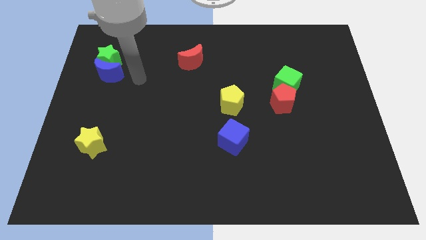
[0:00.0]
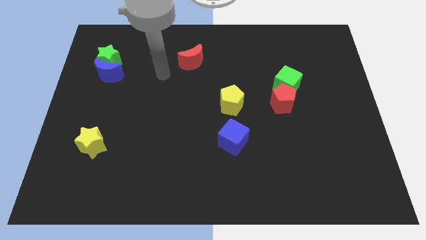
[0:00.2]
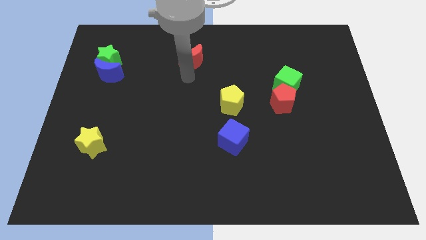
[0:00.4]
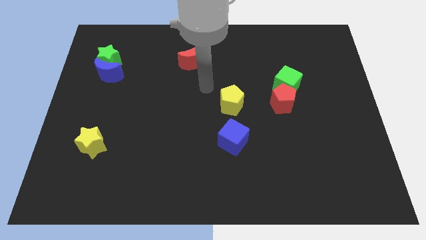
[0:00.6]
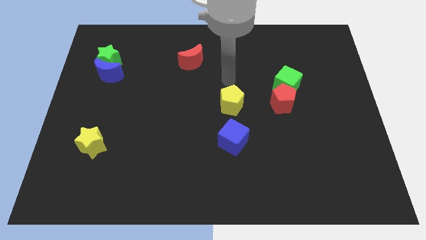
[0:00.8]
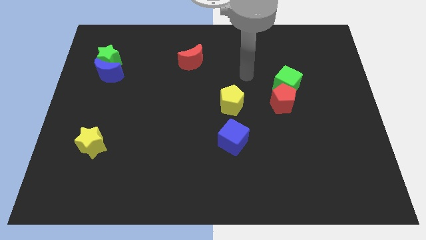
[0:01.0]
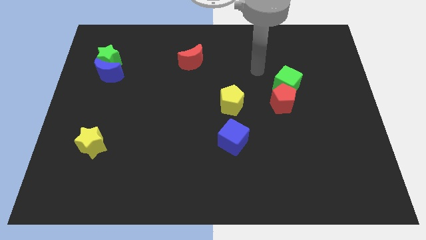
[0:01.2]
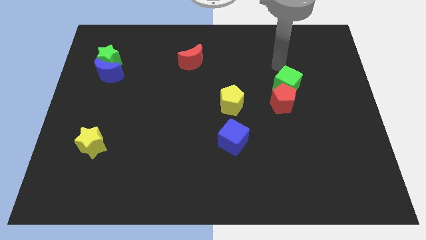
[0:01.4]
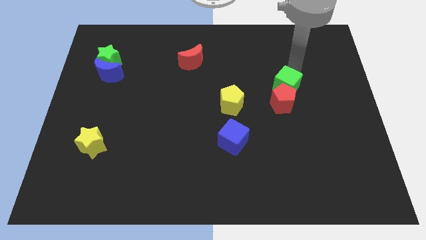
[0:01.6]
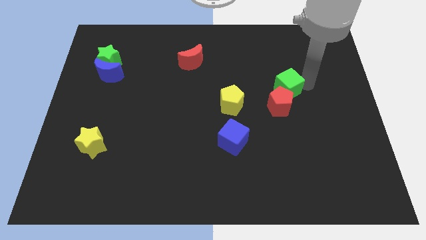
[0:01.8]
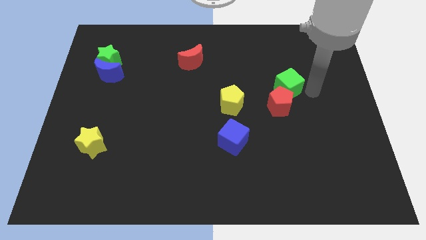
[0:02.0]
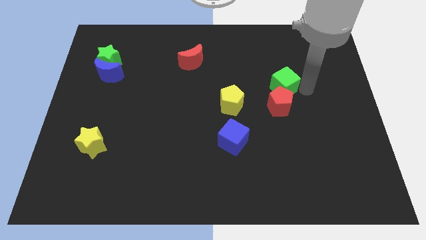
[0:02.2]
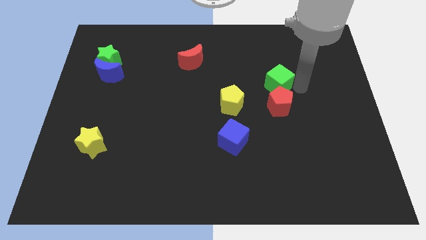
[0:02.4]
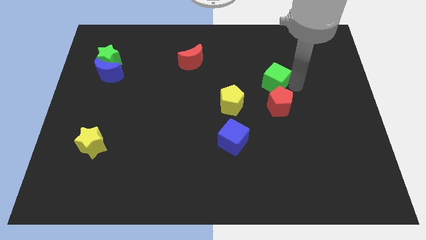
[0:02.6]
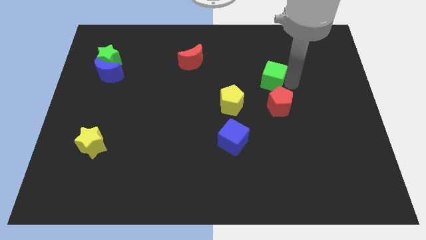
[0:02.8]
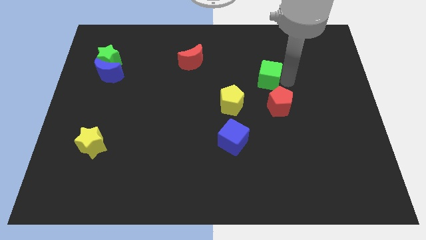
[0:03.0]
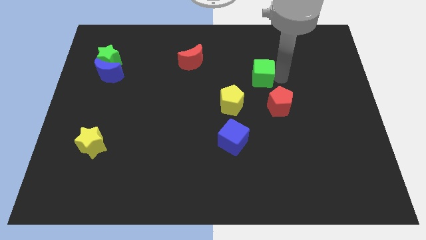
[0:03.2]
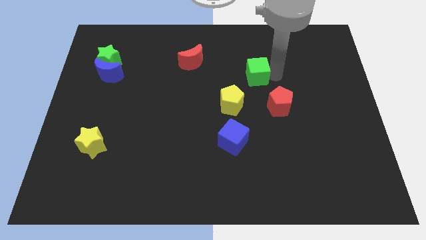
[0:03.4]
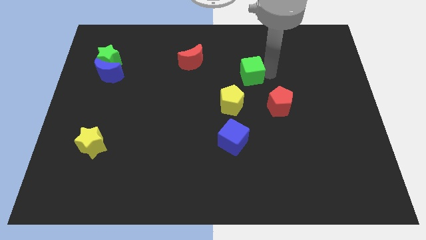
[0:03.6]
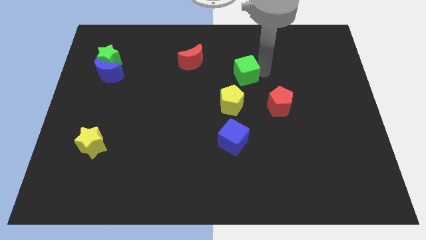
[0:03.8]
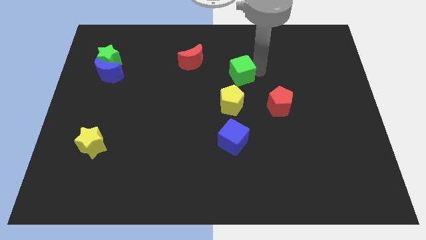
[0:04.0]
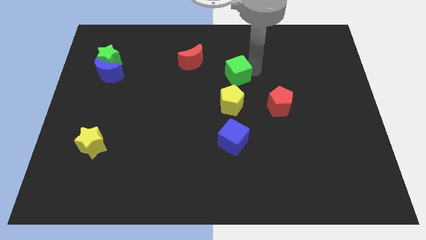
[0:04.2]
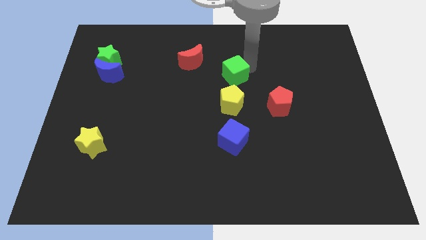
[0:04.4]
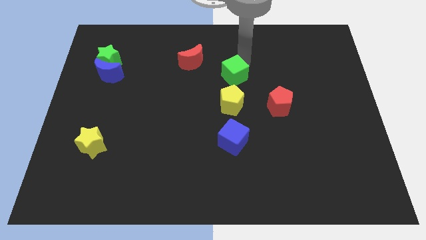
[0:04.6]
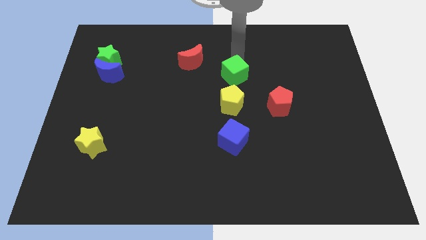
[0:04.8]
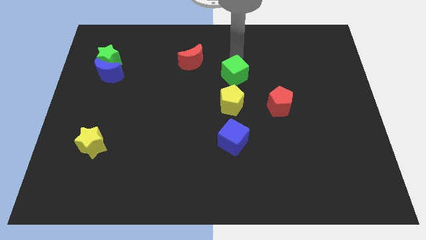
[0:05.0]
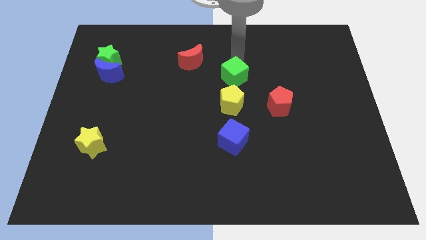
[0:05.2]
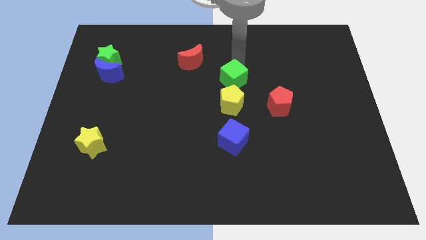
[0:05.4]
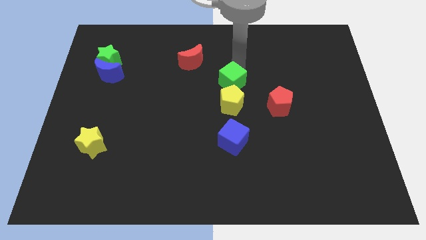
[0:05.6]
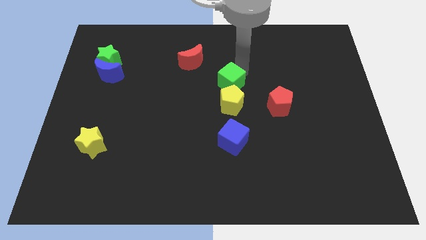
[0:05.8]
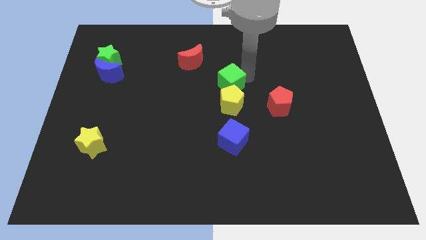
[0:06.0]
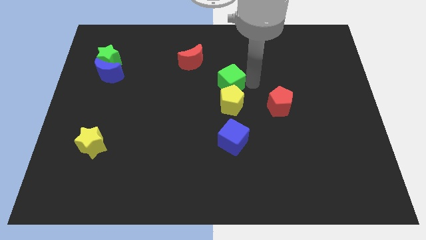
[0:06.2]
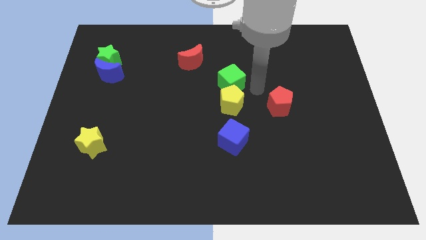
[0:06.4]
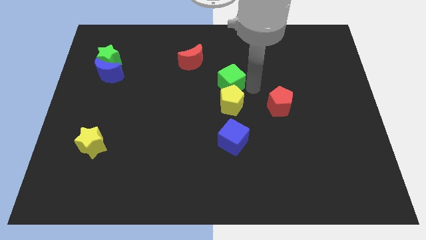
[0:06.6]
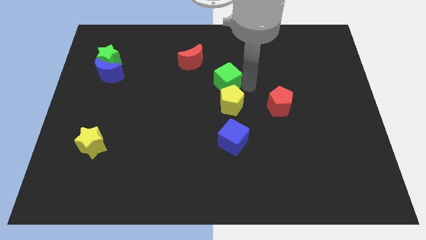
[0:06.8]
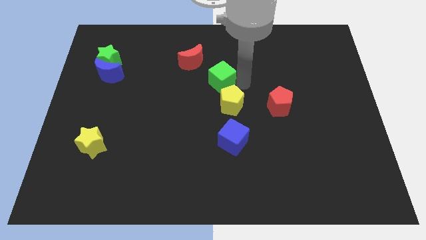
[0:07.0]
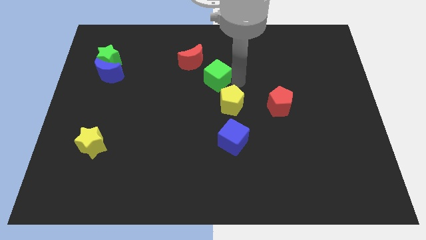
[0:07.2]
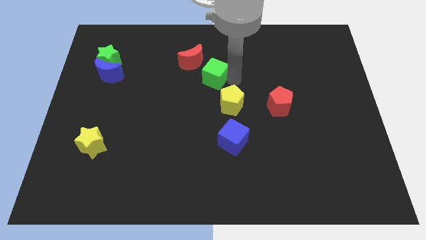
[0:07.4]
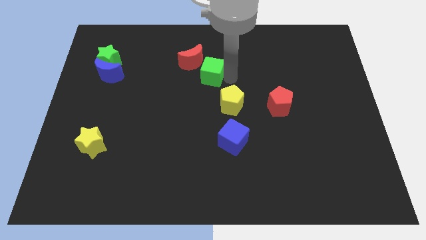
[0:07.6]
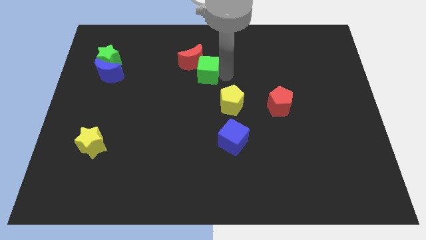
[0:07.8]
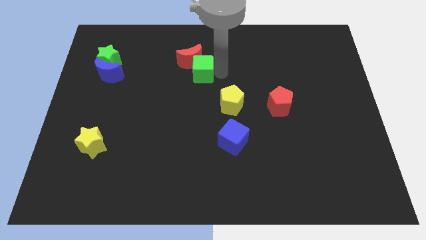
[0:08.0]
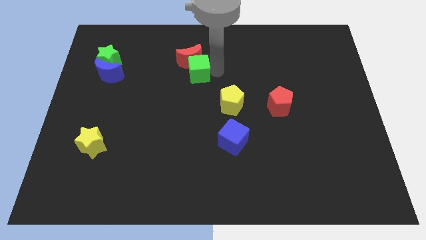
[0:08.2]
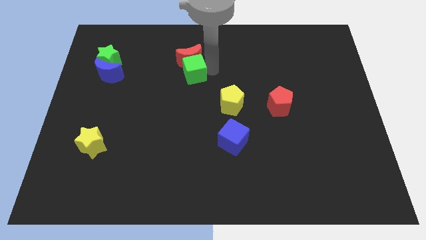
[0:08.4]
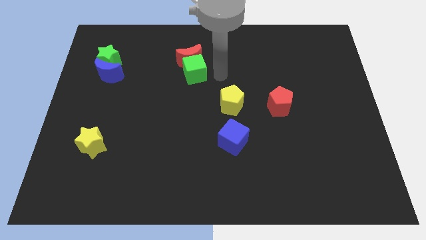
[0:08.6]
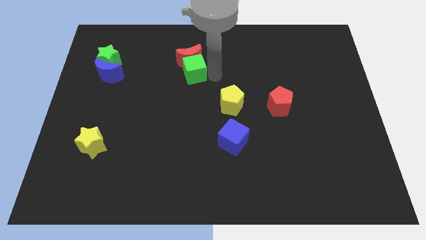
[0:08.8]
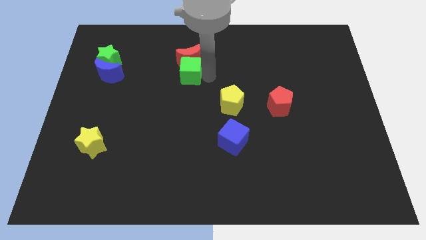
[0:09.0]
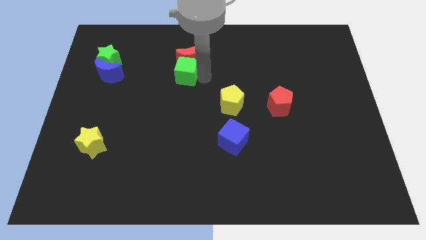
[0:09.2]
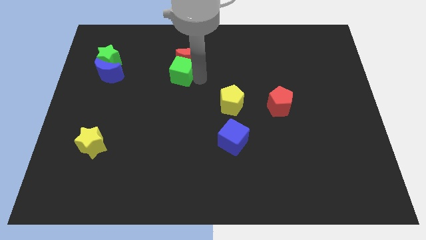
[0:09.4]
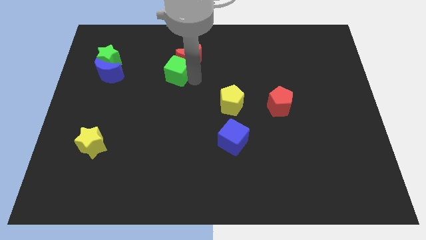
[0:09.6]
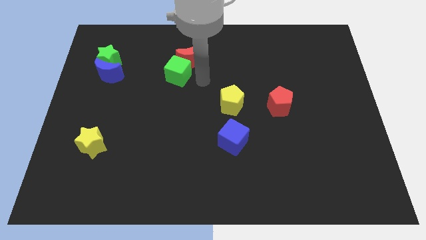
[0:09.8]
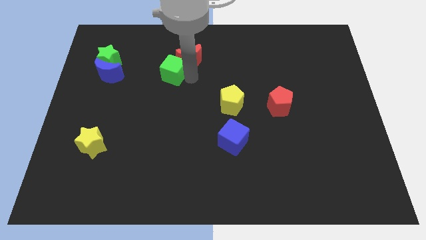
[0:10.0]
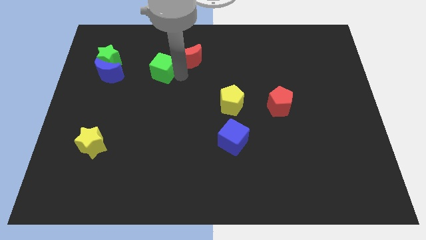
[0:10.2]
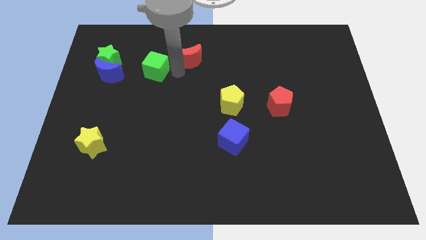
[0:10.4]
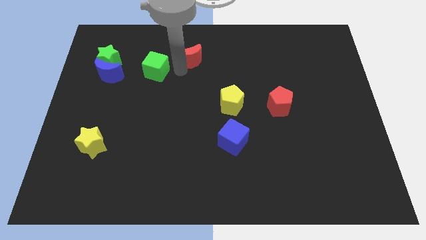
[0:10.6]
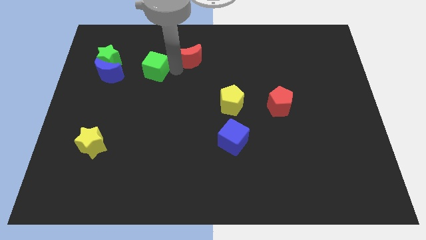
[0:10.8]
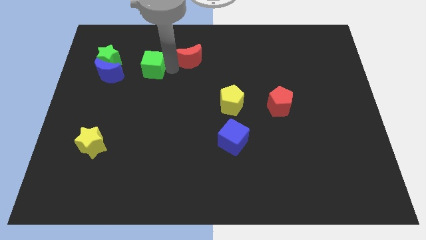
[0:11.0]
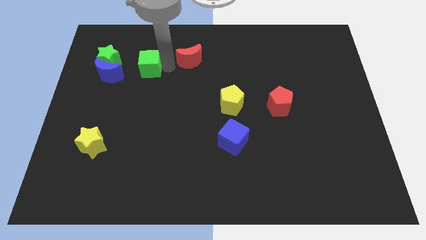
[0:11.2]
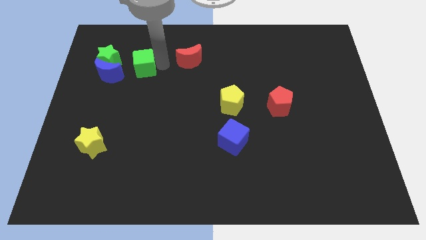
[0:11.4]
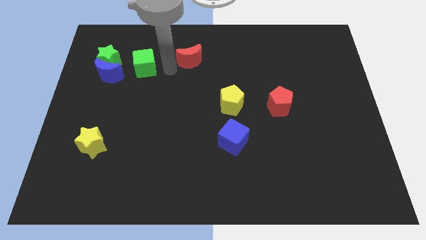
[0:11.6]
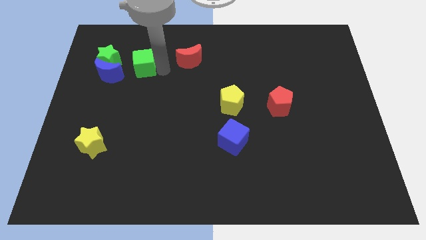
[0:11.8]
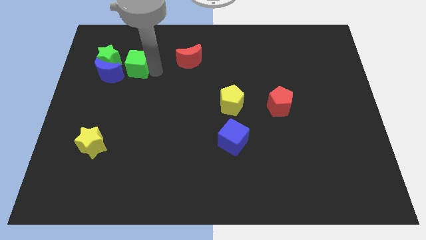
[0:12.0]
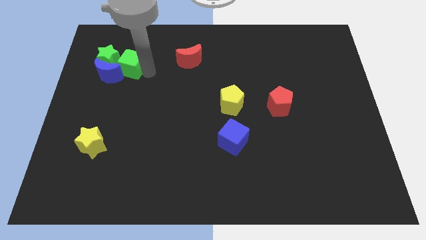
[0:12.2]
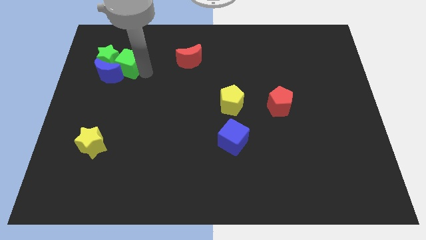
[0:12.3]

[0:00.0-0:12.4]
slide the green cube close to the green star
